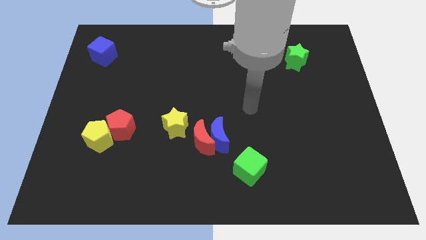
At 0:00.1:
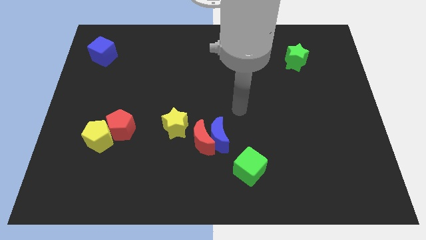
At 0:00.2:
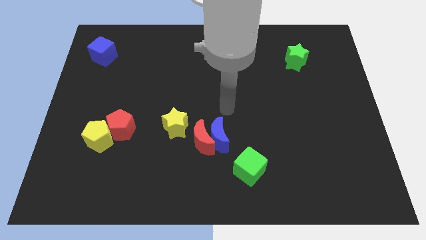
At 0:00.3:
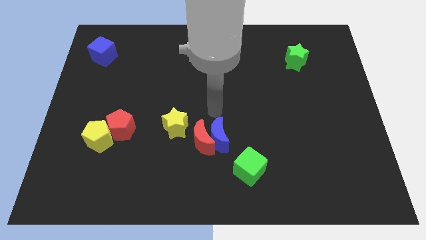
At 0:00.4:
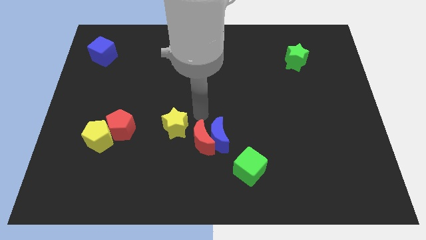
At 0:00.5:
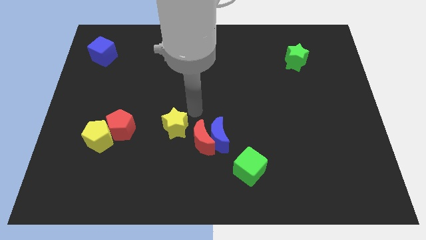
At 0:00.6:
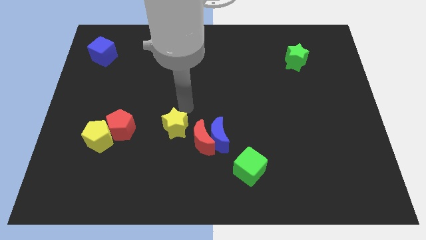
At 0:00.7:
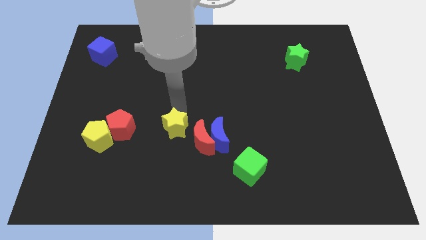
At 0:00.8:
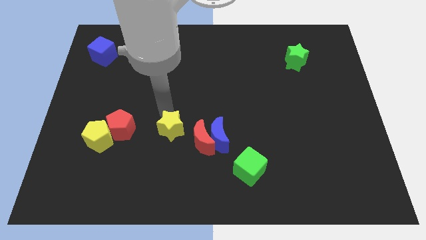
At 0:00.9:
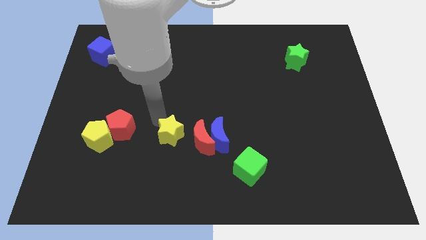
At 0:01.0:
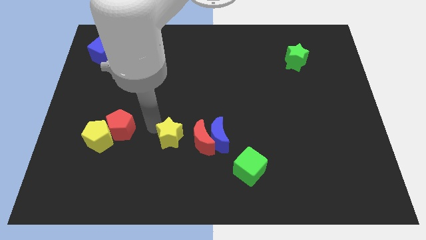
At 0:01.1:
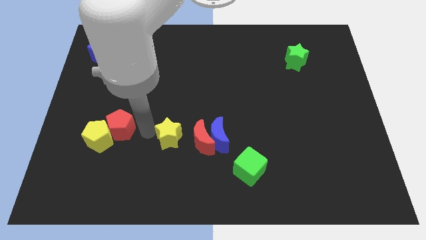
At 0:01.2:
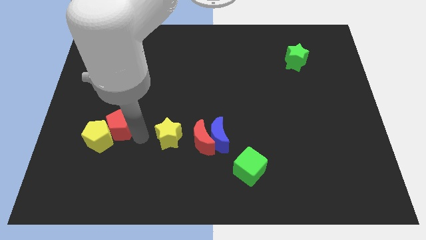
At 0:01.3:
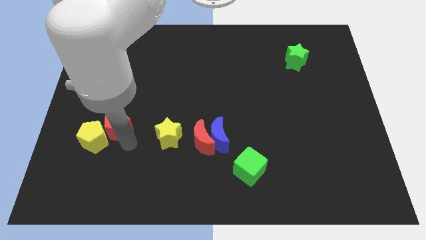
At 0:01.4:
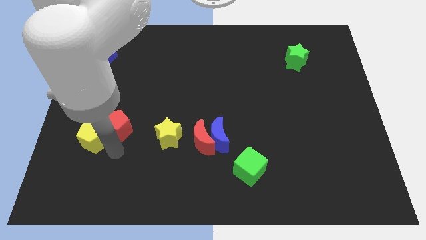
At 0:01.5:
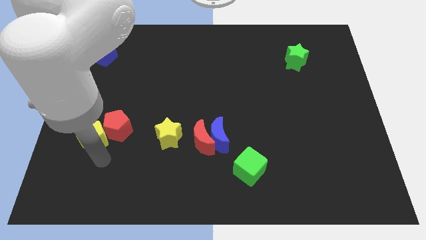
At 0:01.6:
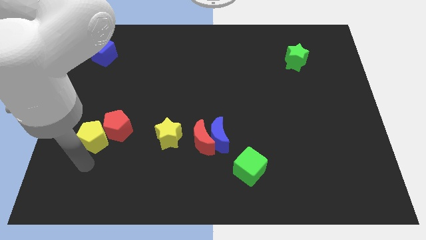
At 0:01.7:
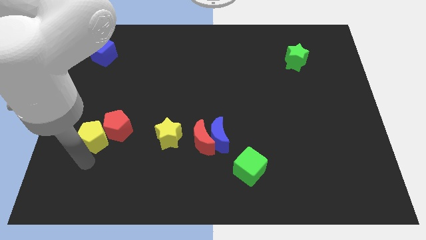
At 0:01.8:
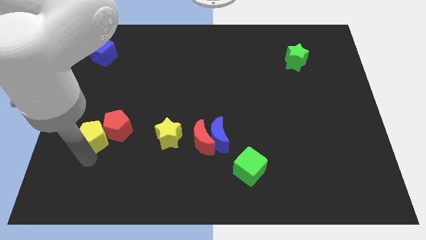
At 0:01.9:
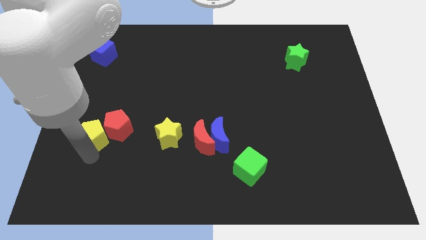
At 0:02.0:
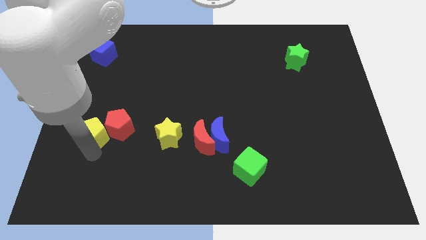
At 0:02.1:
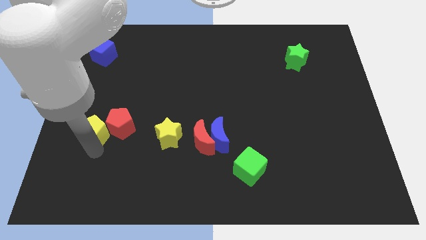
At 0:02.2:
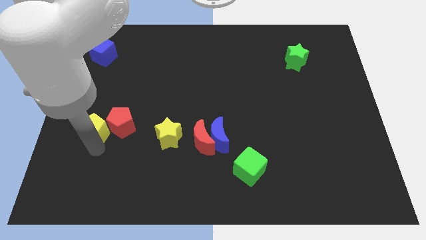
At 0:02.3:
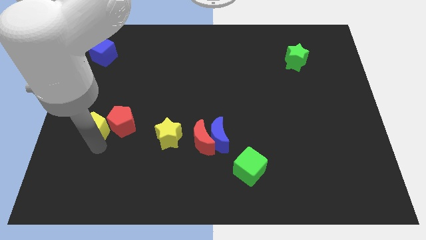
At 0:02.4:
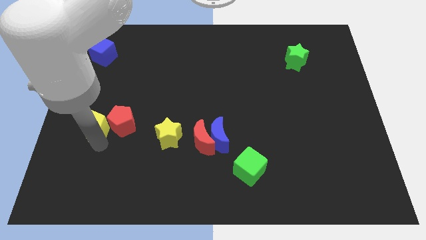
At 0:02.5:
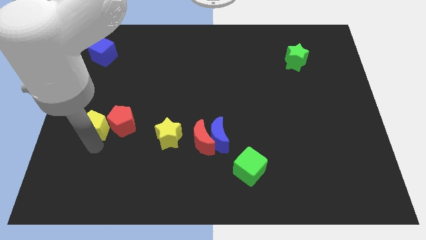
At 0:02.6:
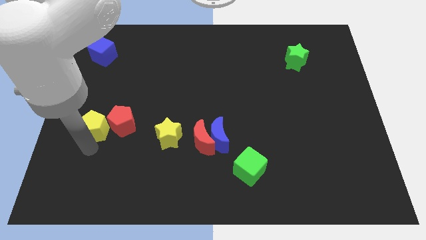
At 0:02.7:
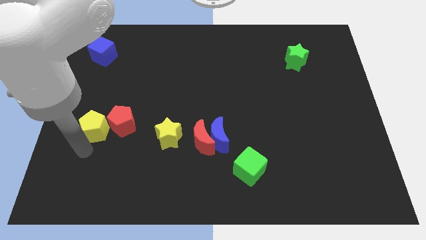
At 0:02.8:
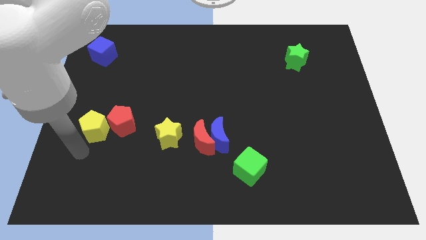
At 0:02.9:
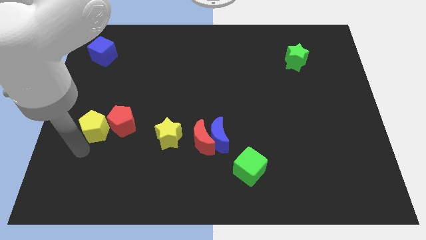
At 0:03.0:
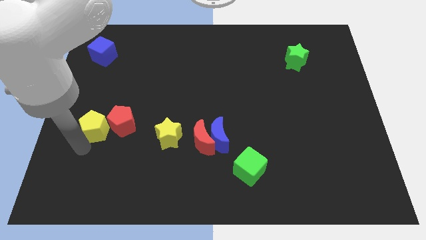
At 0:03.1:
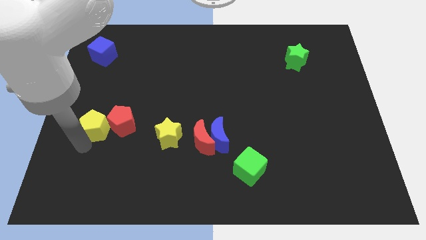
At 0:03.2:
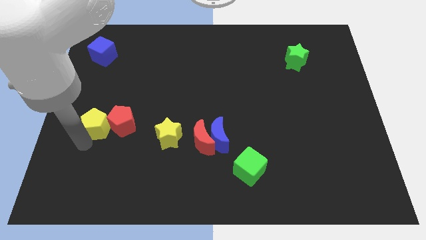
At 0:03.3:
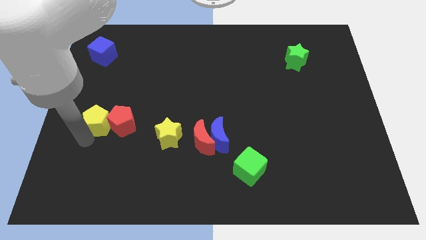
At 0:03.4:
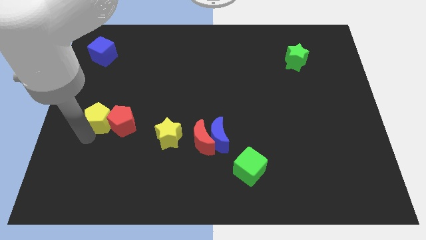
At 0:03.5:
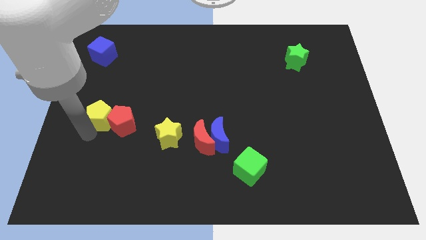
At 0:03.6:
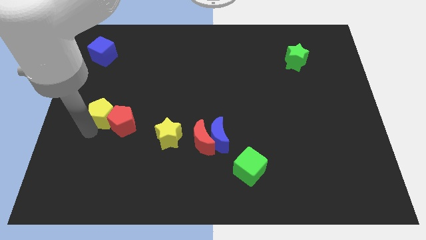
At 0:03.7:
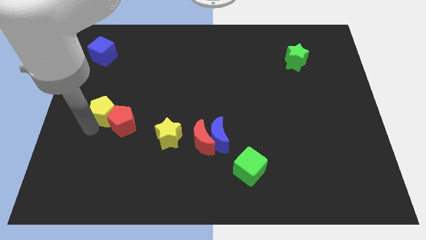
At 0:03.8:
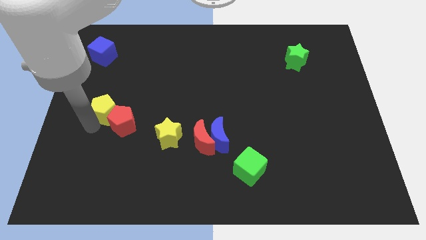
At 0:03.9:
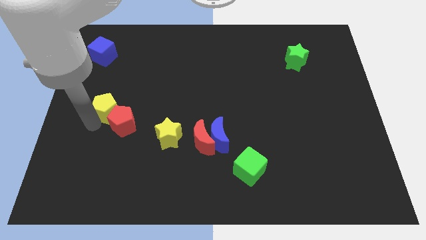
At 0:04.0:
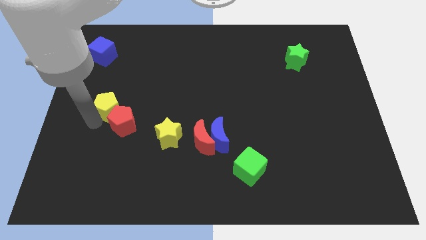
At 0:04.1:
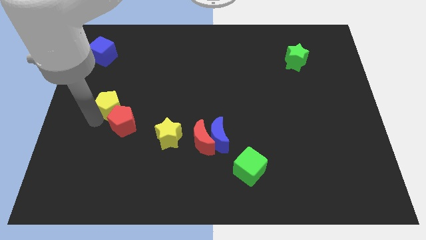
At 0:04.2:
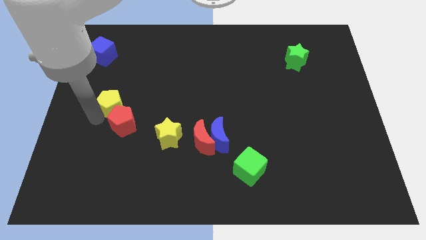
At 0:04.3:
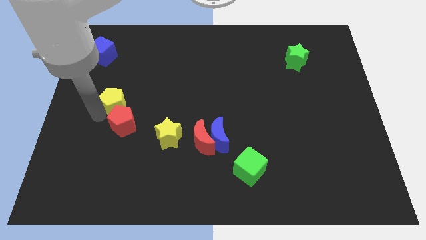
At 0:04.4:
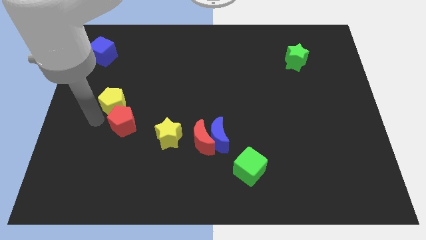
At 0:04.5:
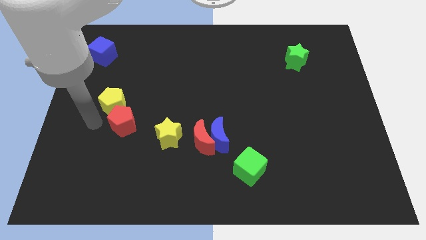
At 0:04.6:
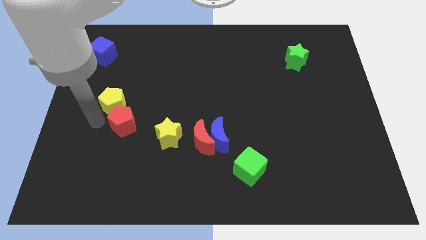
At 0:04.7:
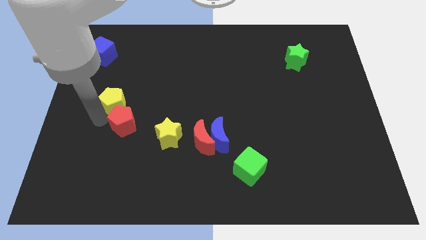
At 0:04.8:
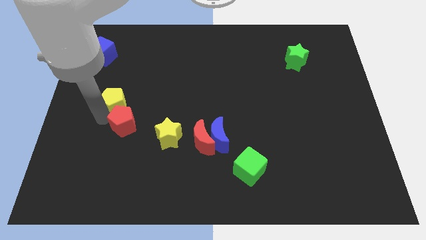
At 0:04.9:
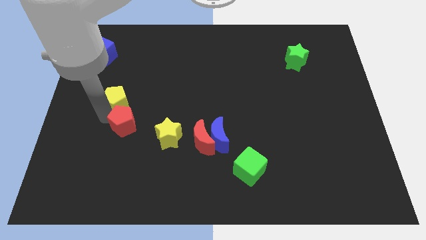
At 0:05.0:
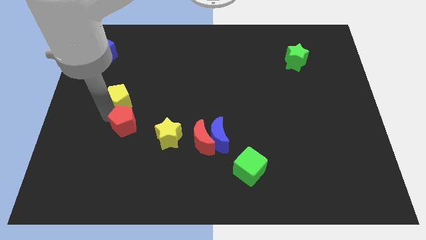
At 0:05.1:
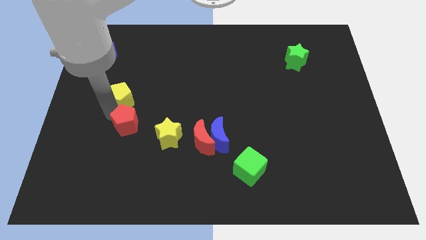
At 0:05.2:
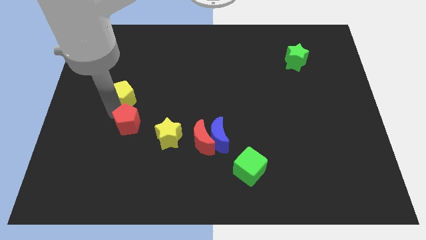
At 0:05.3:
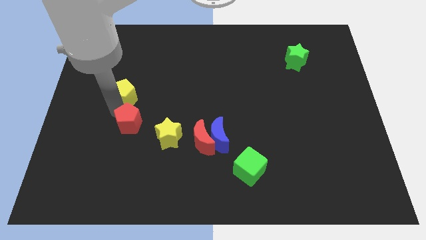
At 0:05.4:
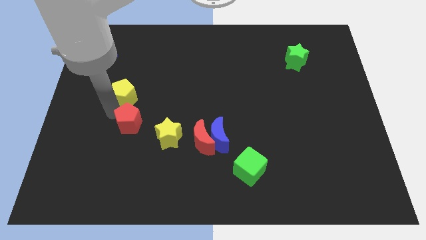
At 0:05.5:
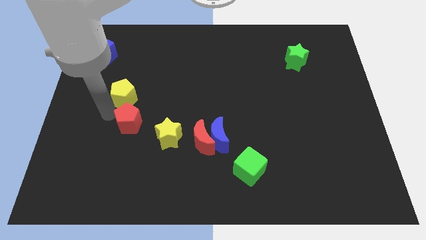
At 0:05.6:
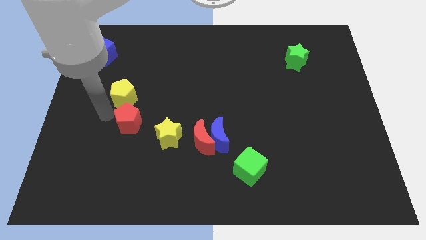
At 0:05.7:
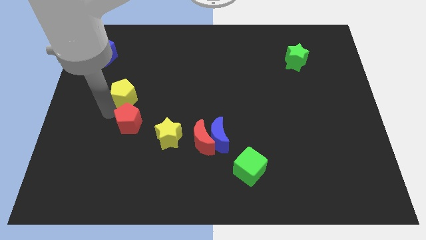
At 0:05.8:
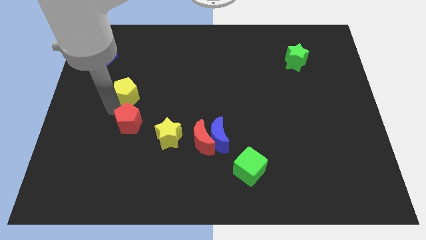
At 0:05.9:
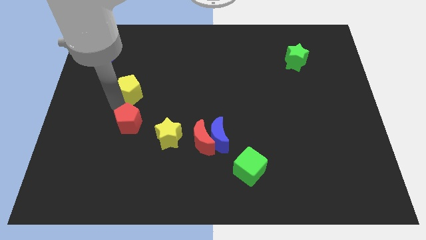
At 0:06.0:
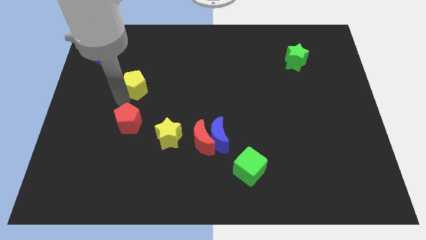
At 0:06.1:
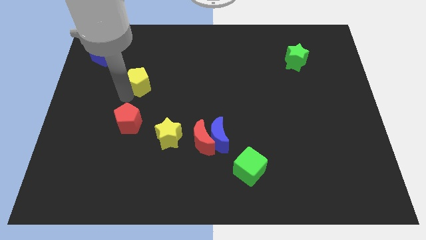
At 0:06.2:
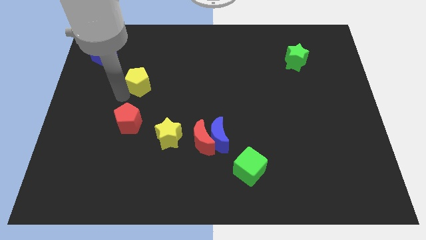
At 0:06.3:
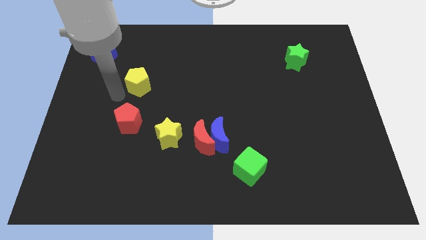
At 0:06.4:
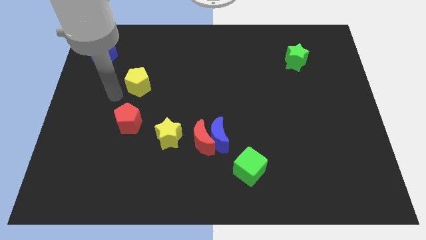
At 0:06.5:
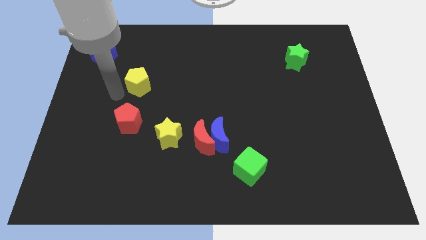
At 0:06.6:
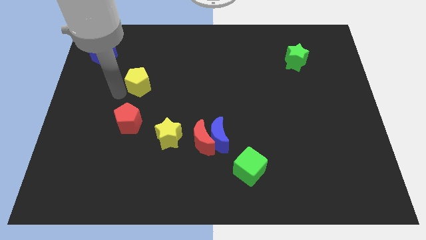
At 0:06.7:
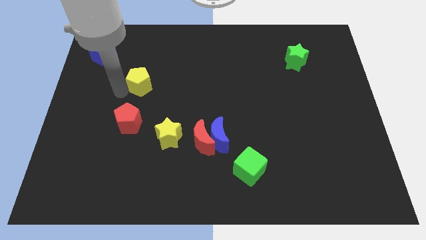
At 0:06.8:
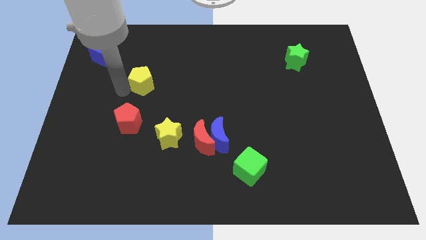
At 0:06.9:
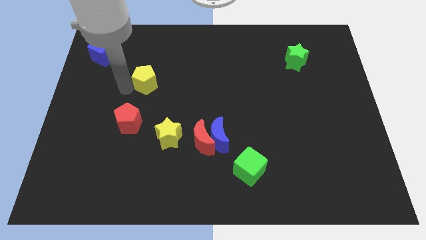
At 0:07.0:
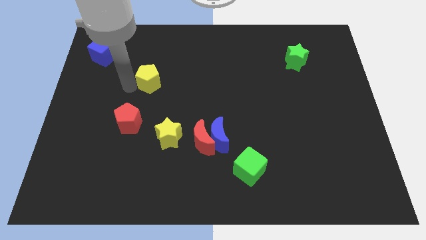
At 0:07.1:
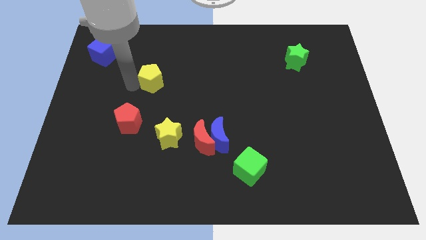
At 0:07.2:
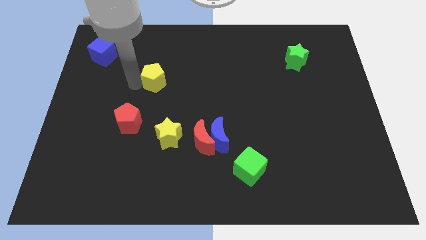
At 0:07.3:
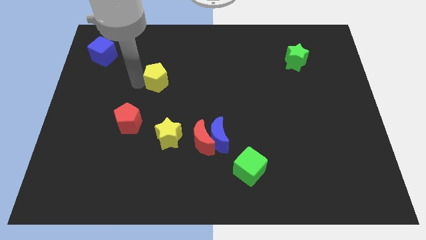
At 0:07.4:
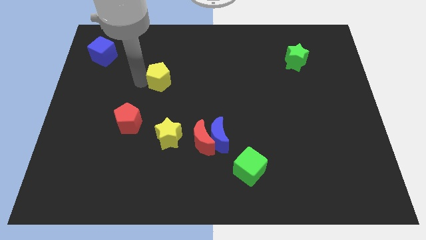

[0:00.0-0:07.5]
move the yellow pentagon upwards and to the right

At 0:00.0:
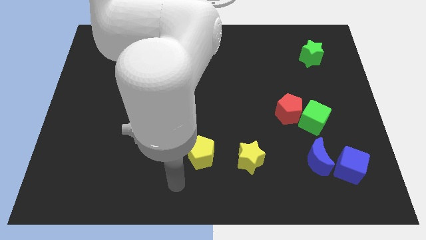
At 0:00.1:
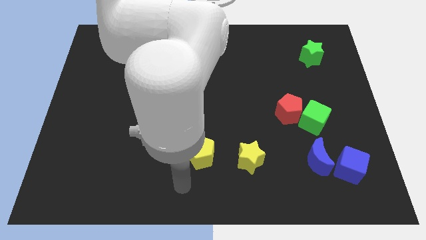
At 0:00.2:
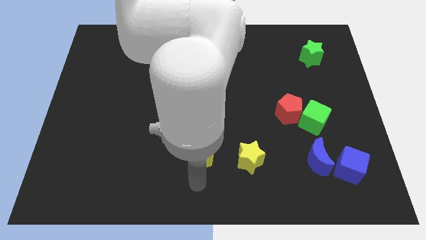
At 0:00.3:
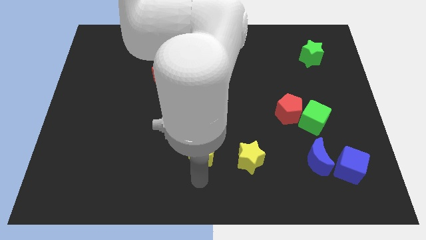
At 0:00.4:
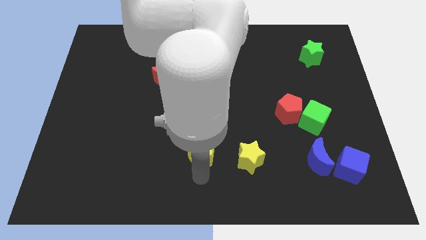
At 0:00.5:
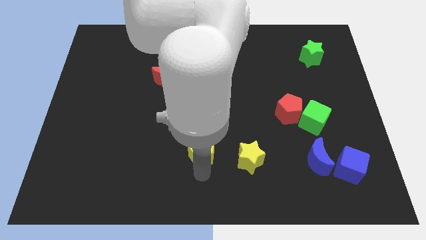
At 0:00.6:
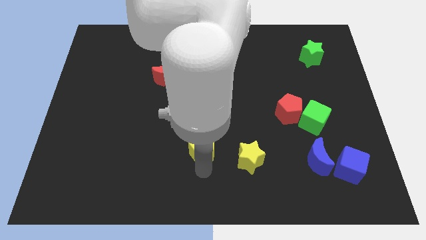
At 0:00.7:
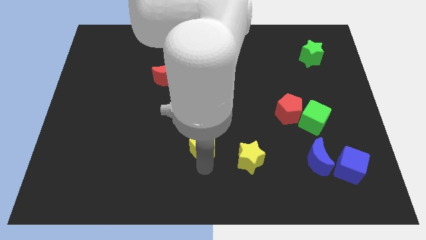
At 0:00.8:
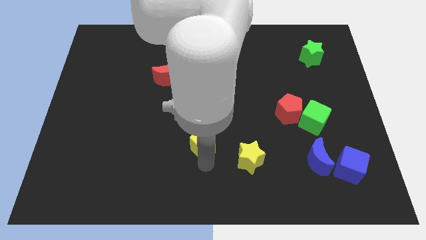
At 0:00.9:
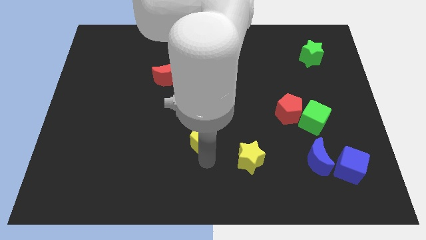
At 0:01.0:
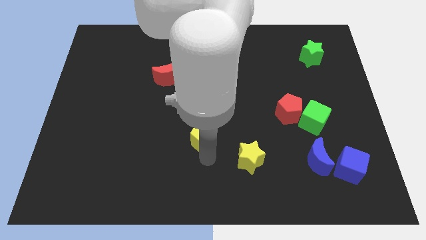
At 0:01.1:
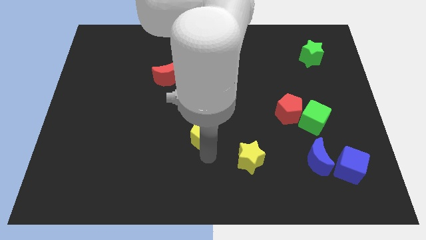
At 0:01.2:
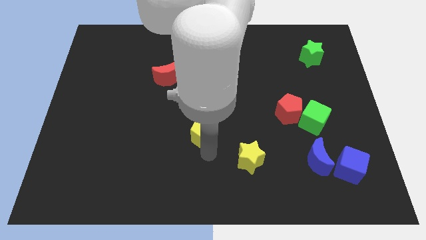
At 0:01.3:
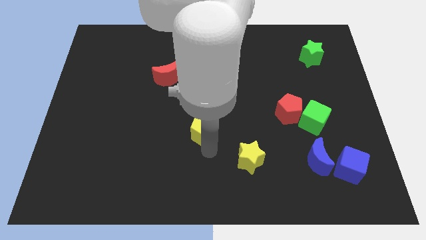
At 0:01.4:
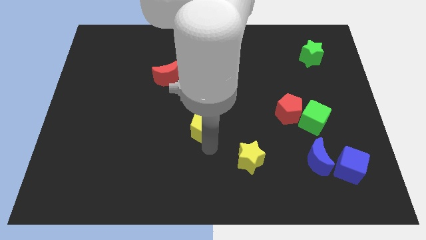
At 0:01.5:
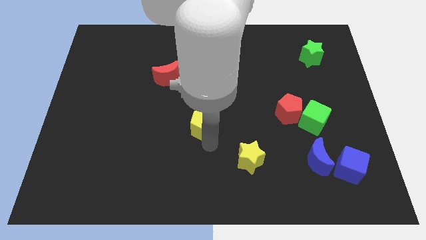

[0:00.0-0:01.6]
move the yellow pentagon up a little
